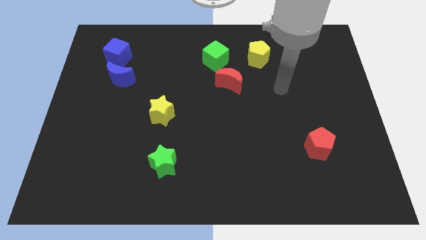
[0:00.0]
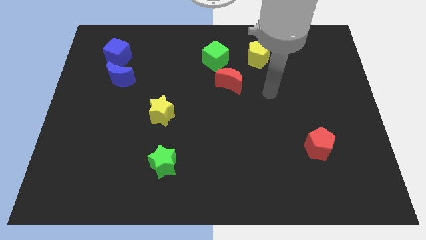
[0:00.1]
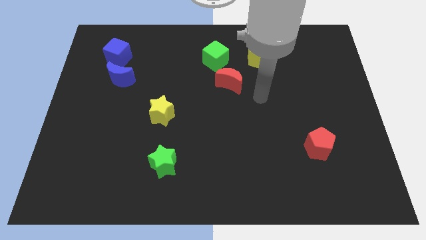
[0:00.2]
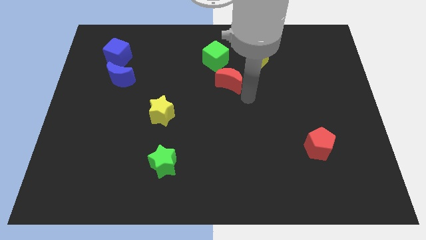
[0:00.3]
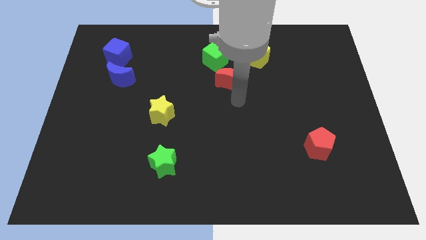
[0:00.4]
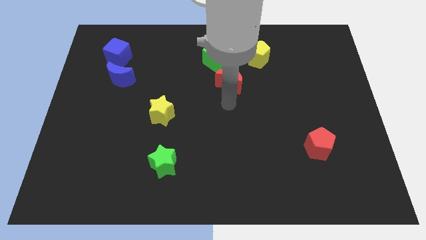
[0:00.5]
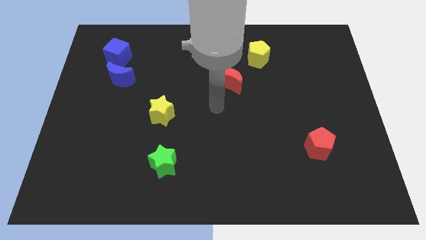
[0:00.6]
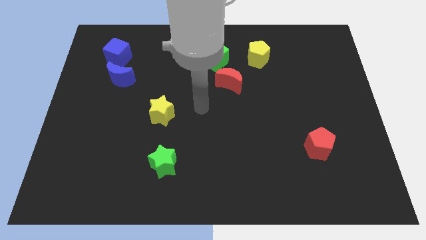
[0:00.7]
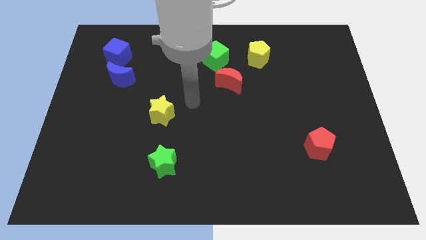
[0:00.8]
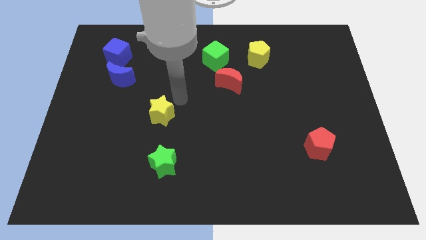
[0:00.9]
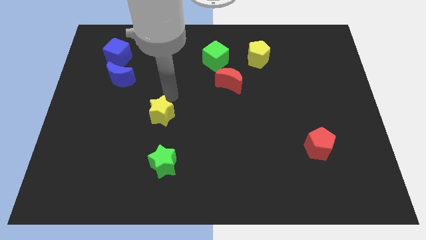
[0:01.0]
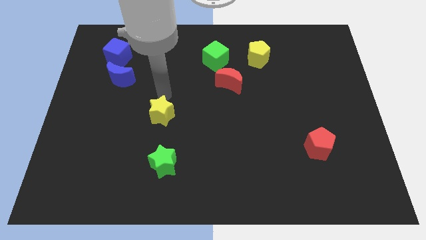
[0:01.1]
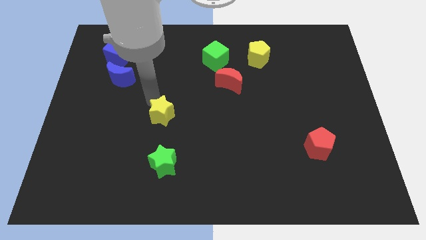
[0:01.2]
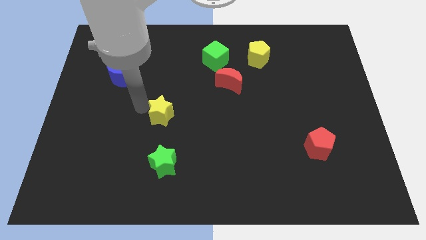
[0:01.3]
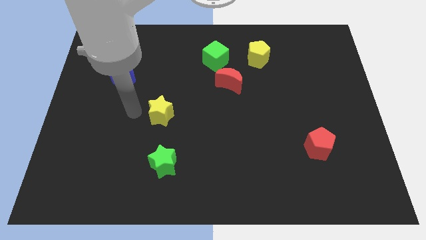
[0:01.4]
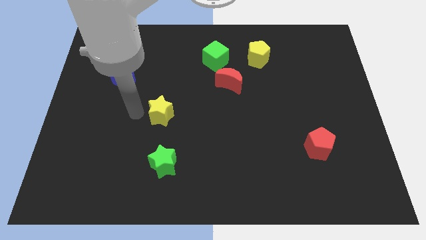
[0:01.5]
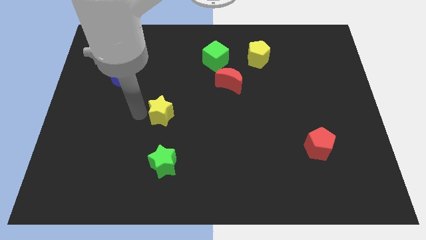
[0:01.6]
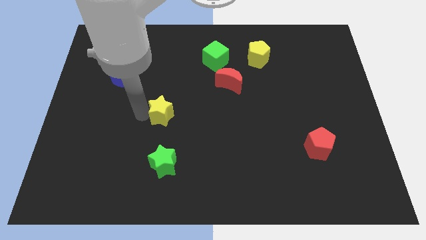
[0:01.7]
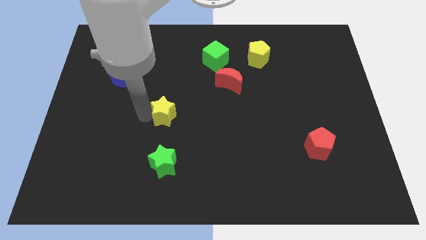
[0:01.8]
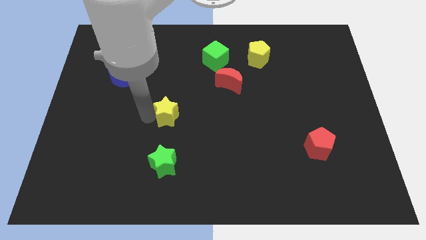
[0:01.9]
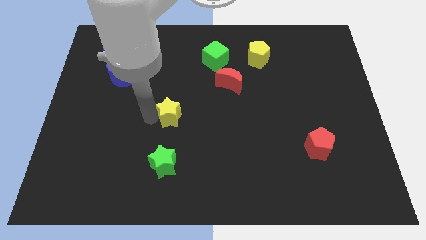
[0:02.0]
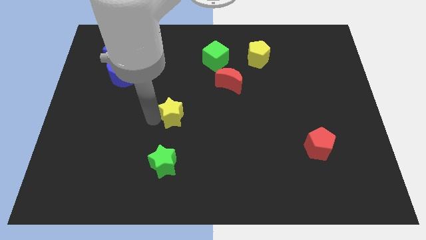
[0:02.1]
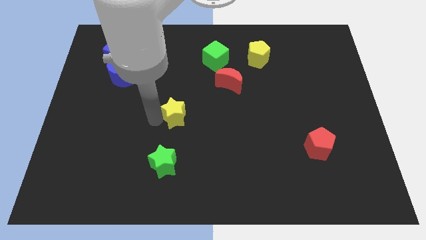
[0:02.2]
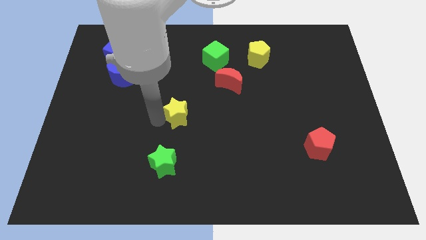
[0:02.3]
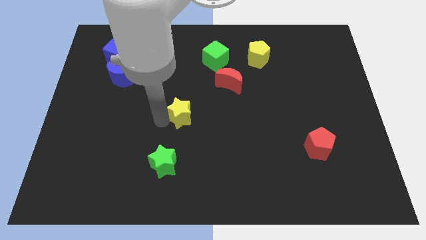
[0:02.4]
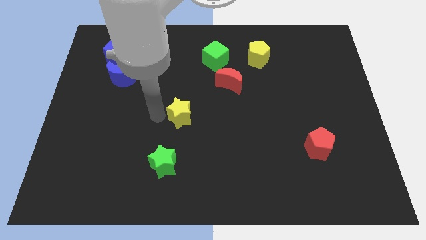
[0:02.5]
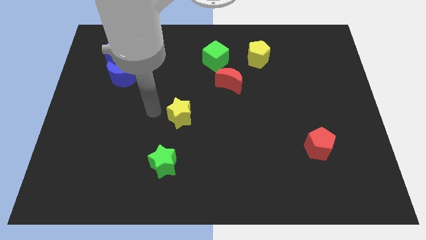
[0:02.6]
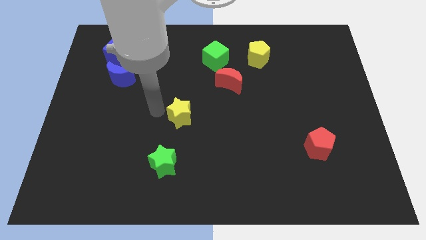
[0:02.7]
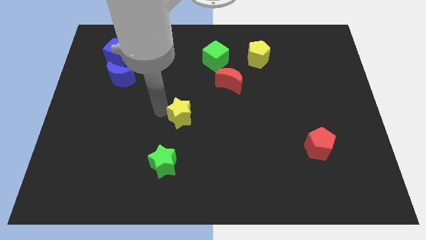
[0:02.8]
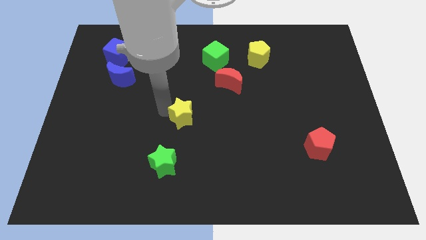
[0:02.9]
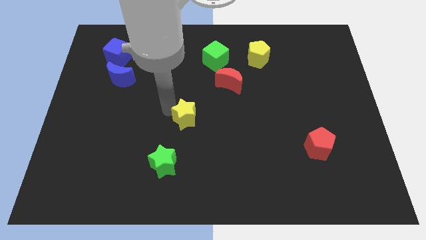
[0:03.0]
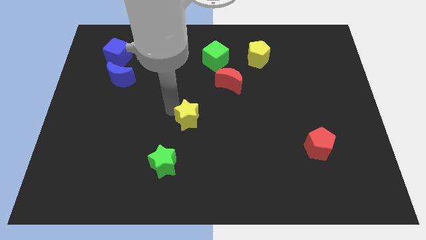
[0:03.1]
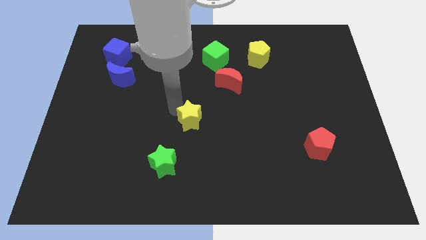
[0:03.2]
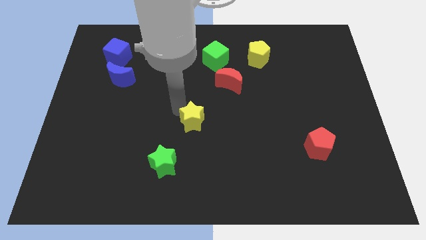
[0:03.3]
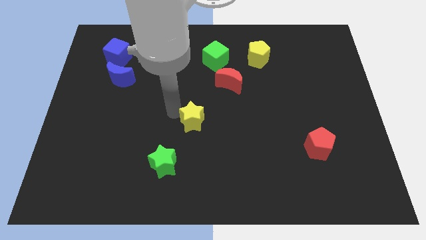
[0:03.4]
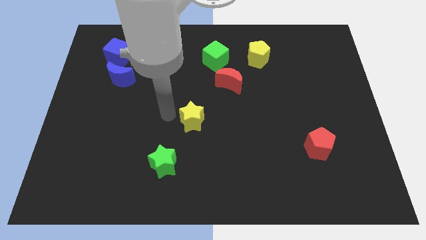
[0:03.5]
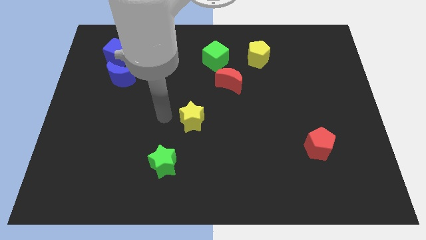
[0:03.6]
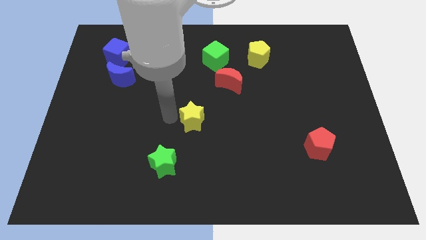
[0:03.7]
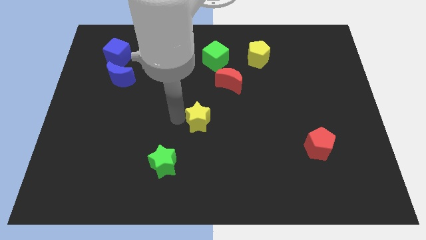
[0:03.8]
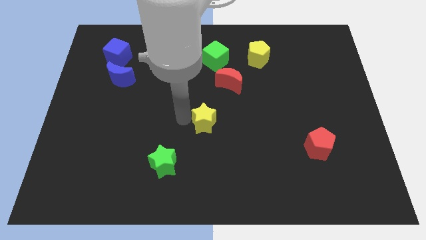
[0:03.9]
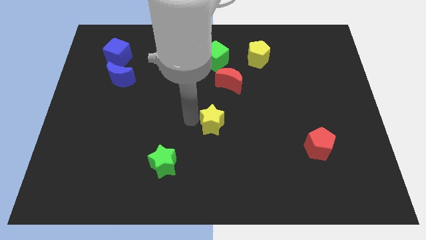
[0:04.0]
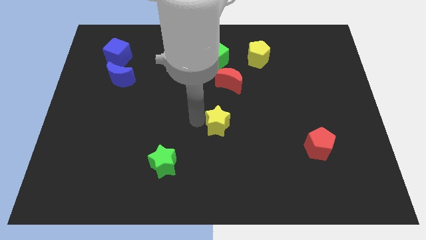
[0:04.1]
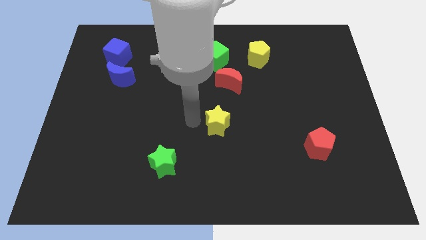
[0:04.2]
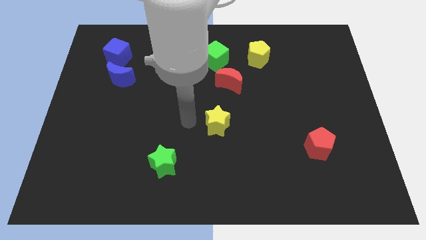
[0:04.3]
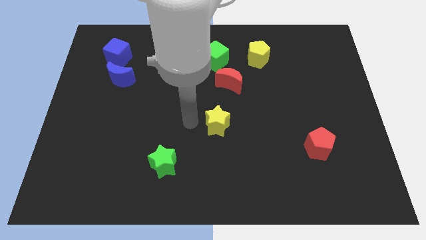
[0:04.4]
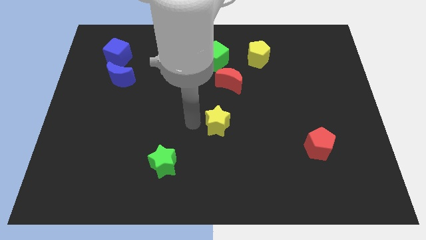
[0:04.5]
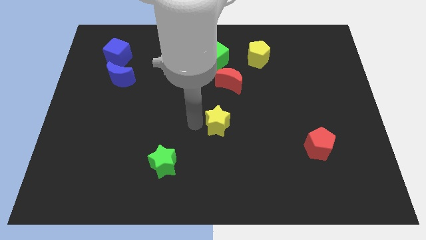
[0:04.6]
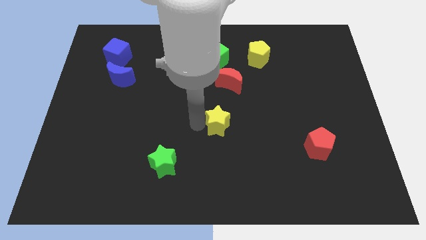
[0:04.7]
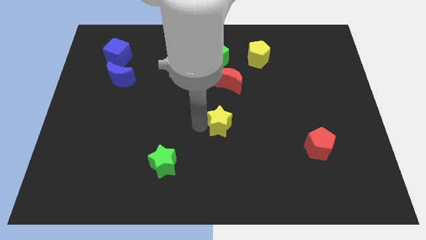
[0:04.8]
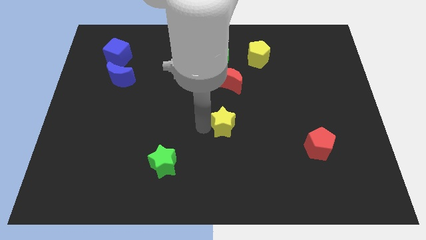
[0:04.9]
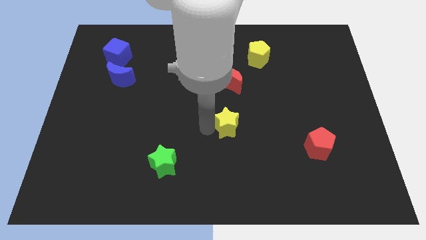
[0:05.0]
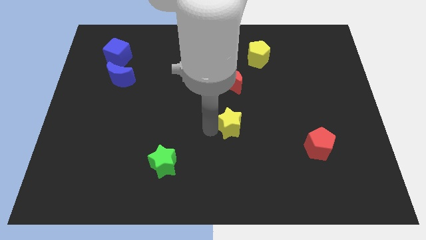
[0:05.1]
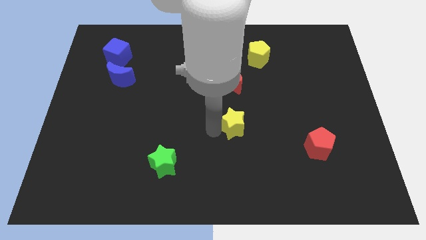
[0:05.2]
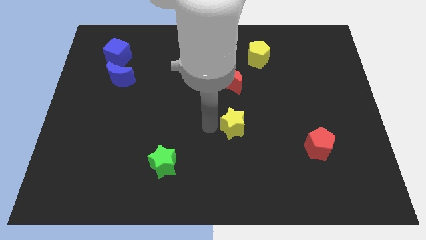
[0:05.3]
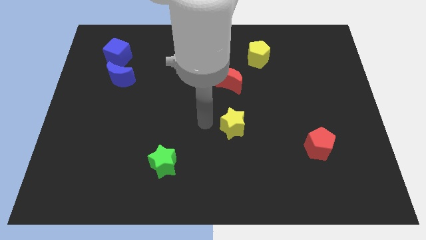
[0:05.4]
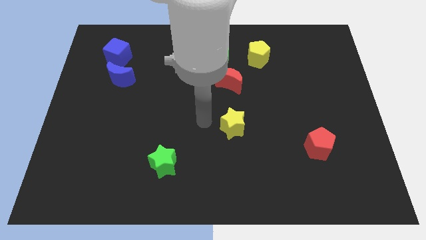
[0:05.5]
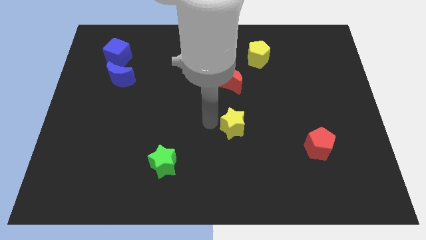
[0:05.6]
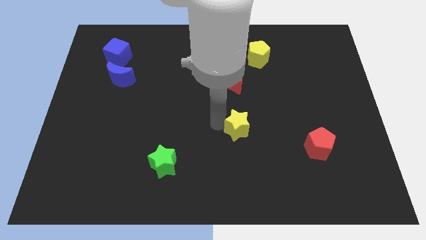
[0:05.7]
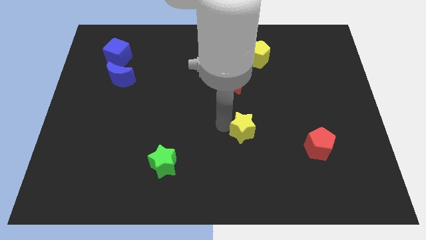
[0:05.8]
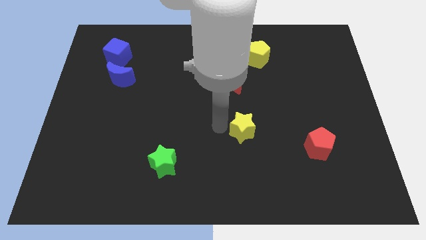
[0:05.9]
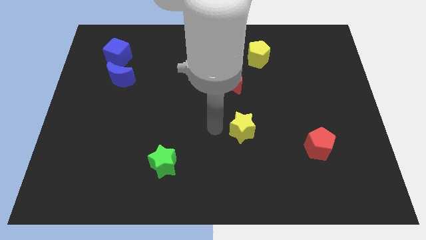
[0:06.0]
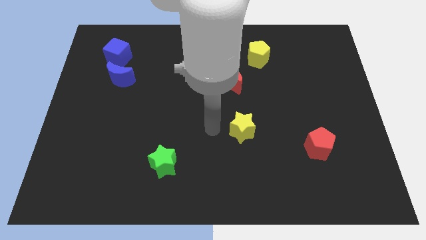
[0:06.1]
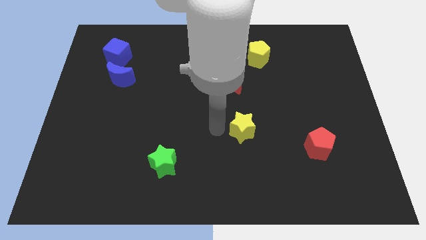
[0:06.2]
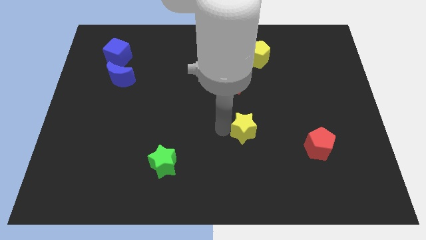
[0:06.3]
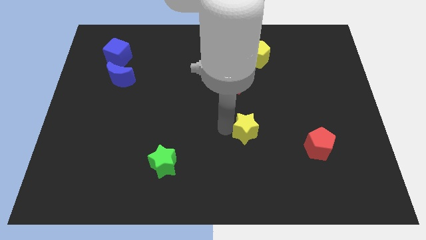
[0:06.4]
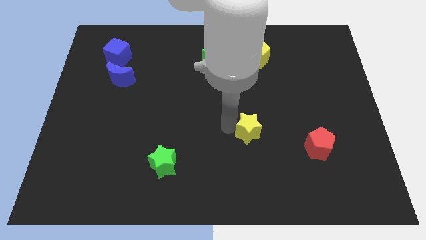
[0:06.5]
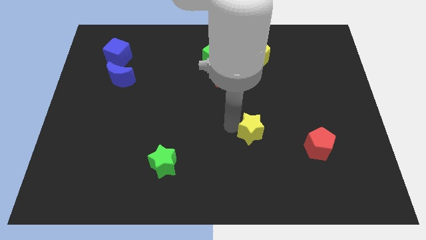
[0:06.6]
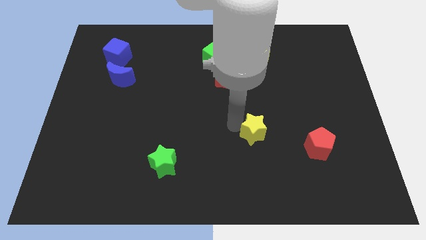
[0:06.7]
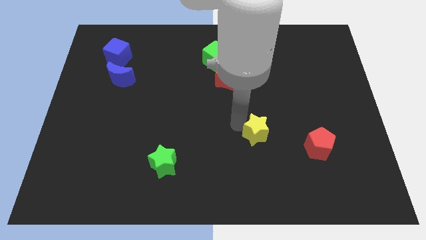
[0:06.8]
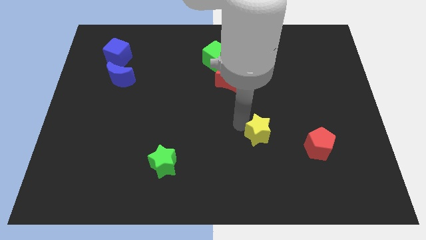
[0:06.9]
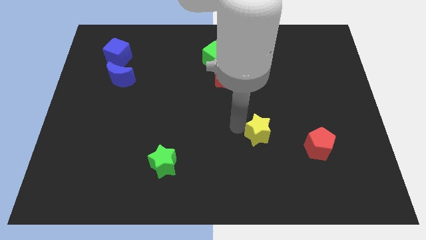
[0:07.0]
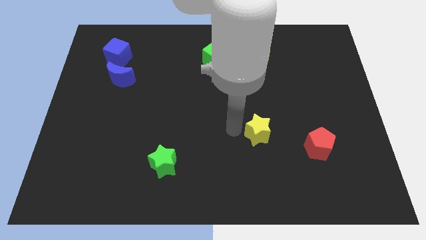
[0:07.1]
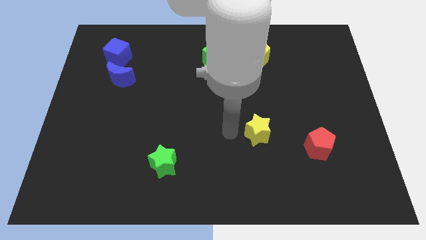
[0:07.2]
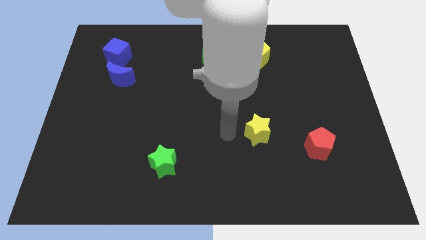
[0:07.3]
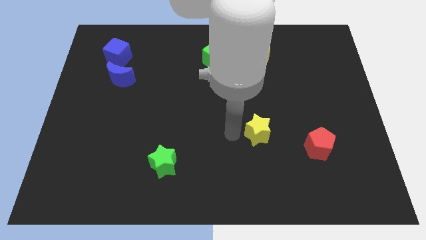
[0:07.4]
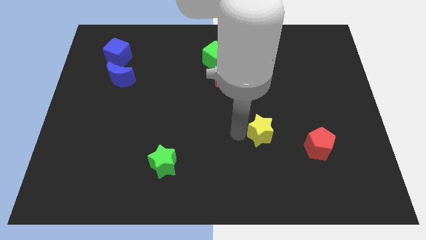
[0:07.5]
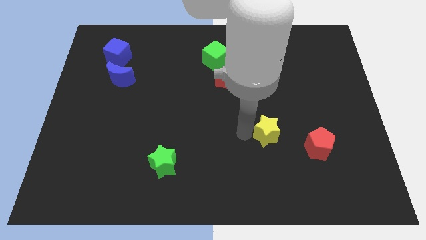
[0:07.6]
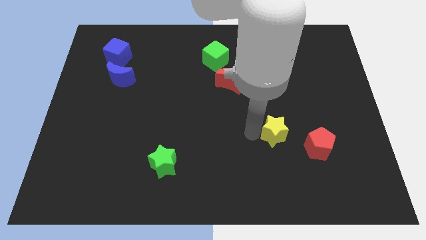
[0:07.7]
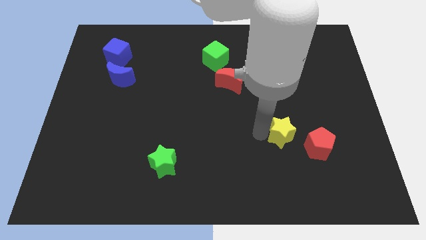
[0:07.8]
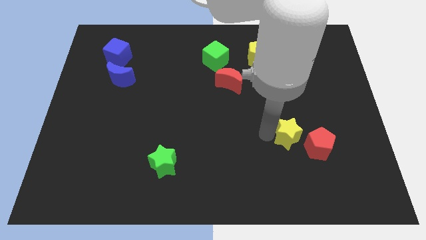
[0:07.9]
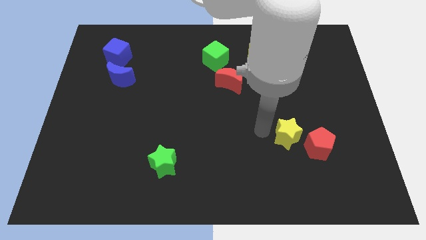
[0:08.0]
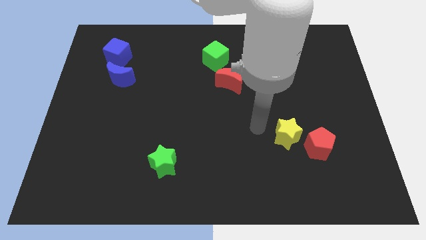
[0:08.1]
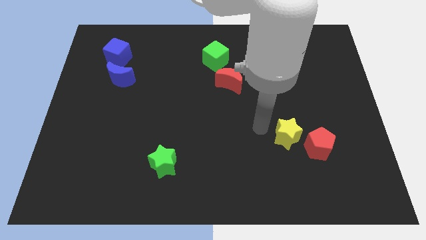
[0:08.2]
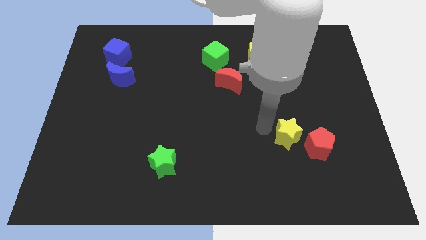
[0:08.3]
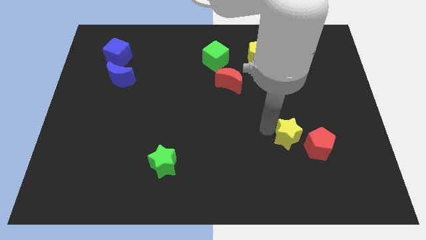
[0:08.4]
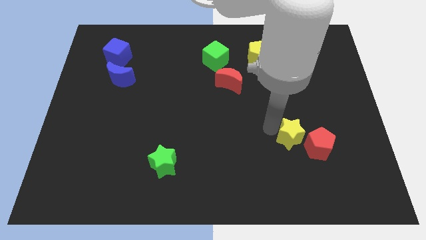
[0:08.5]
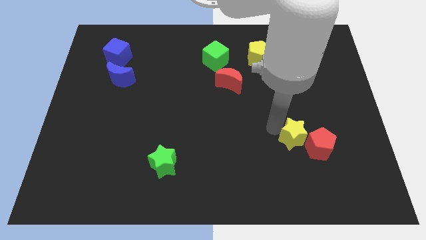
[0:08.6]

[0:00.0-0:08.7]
slide the yellow star next to the red pentagon
